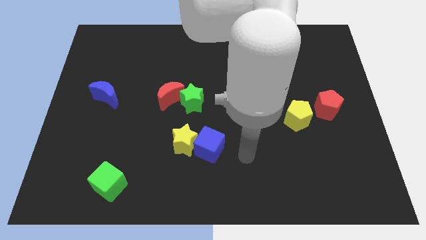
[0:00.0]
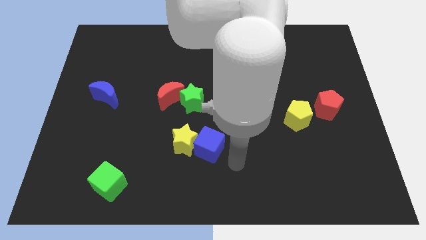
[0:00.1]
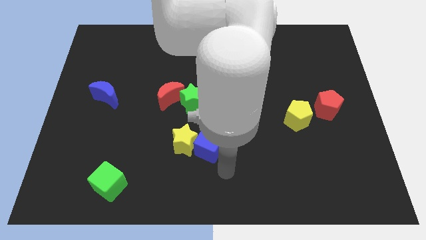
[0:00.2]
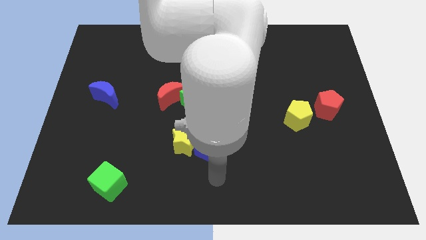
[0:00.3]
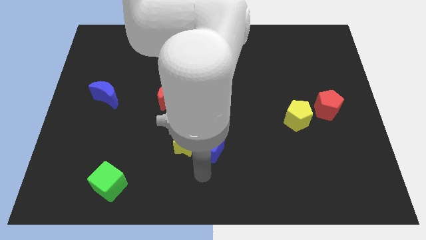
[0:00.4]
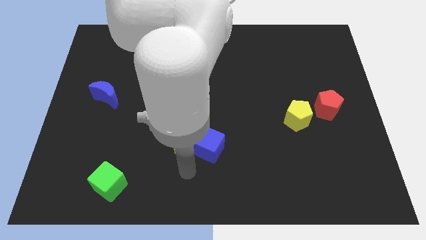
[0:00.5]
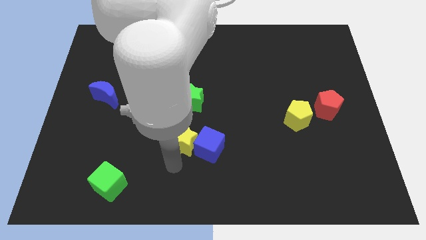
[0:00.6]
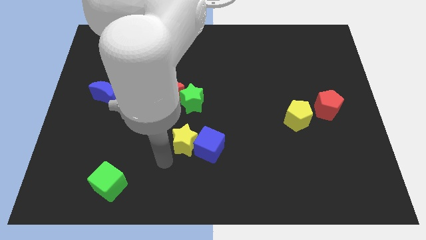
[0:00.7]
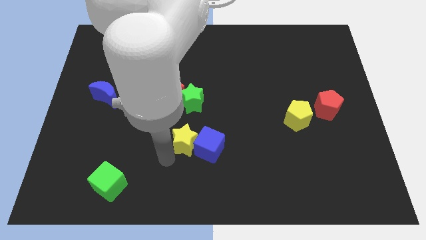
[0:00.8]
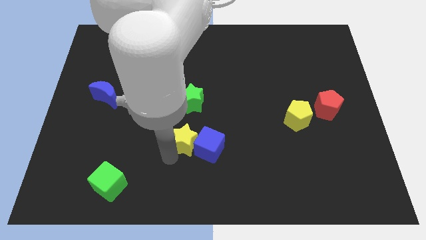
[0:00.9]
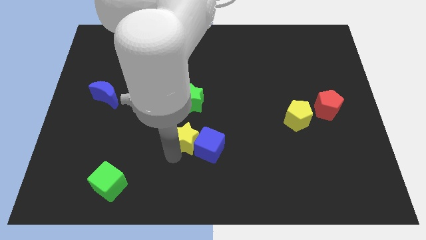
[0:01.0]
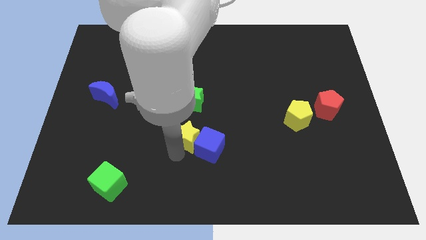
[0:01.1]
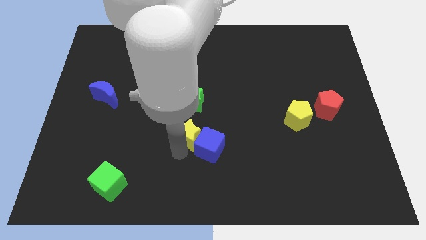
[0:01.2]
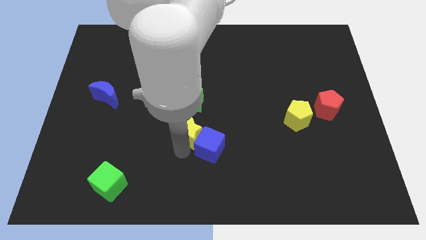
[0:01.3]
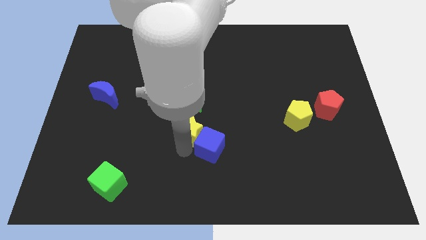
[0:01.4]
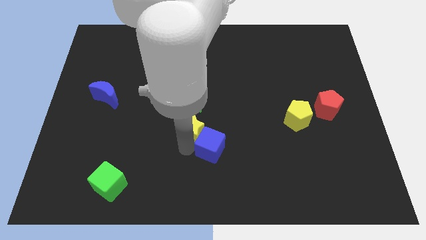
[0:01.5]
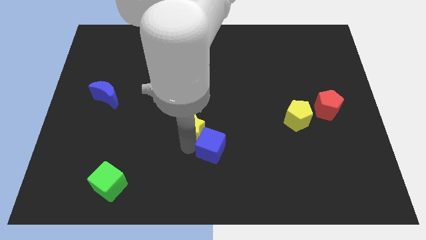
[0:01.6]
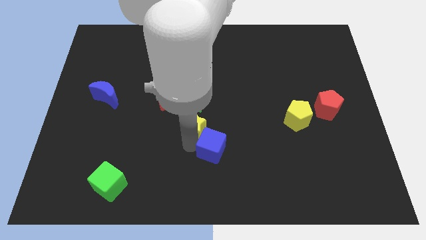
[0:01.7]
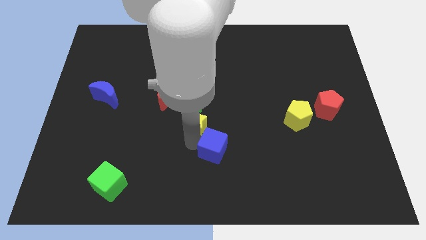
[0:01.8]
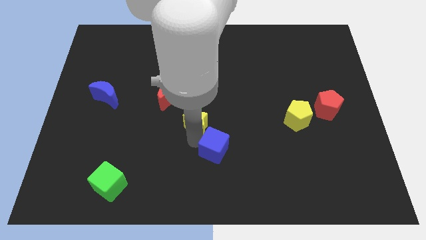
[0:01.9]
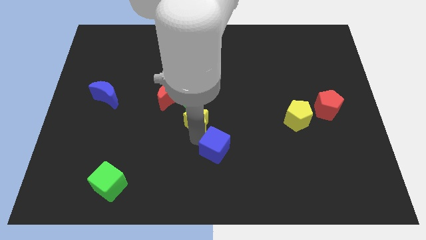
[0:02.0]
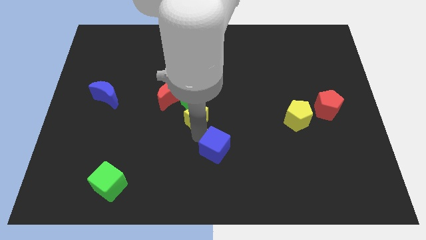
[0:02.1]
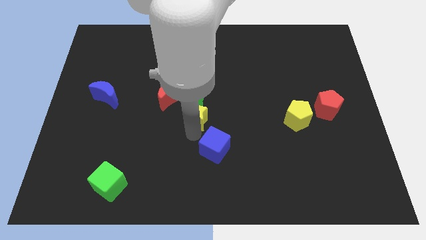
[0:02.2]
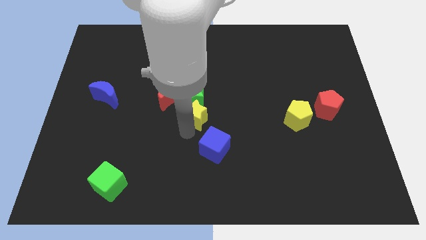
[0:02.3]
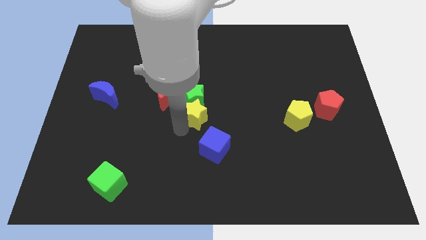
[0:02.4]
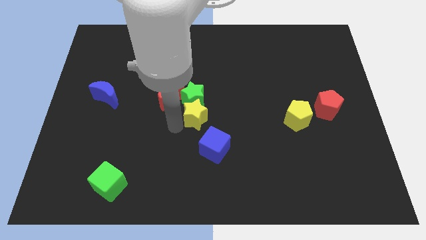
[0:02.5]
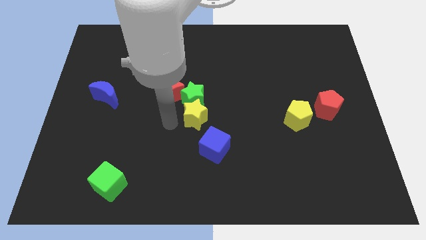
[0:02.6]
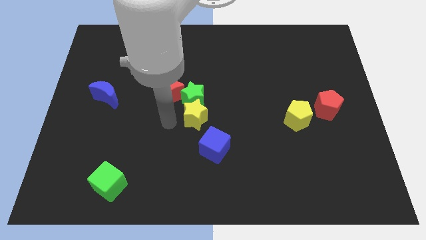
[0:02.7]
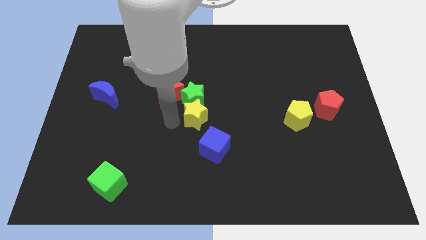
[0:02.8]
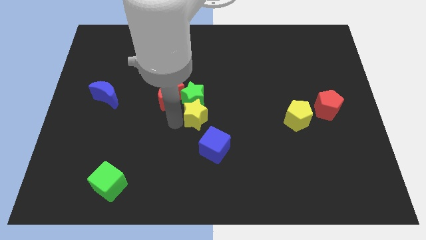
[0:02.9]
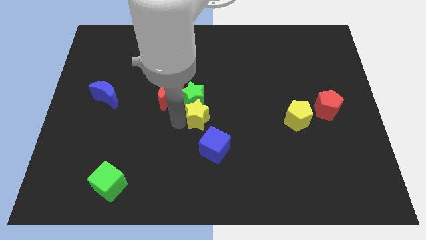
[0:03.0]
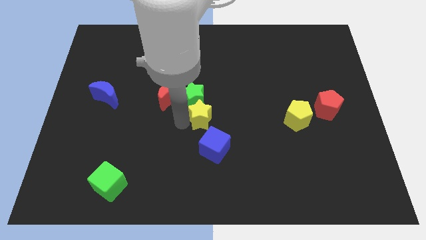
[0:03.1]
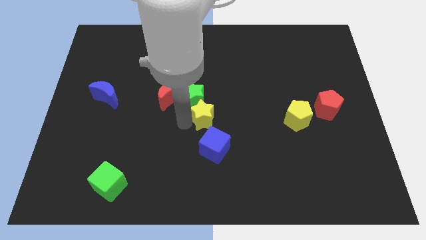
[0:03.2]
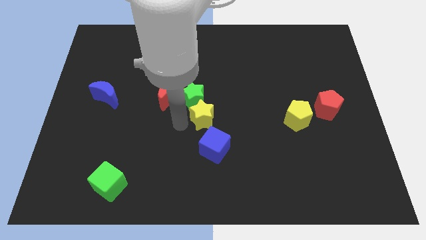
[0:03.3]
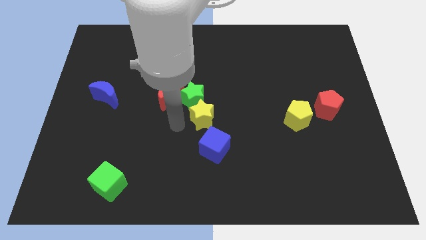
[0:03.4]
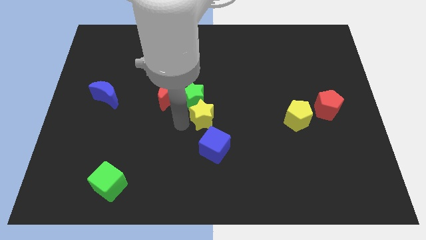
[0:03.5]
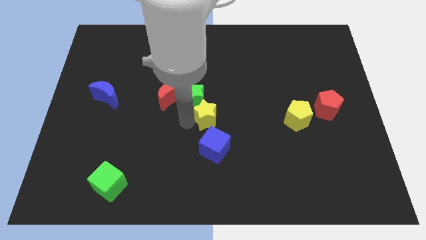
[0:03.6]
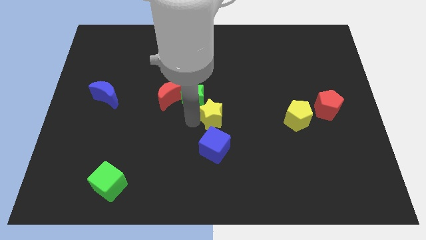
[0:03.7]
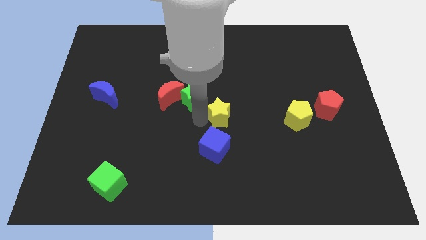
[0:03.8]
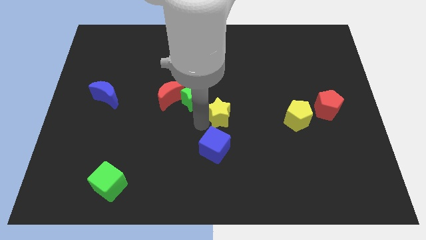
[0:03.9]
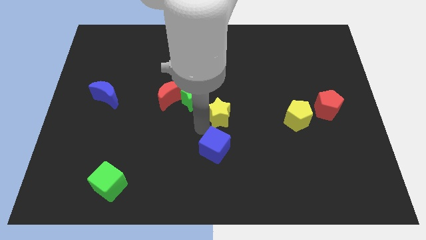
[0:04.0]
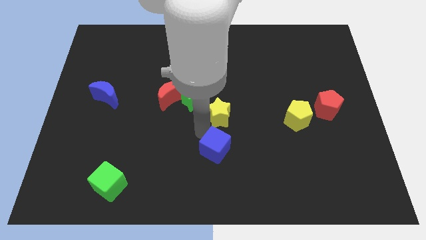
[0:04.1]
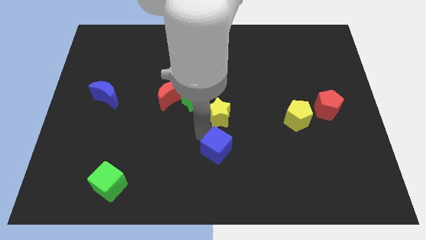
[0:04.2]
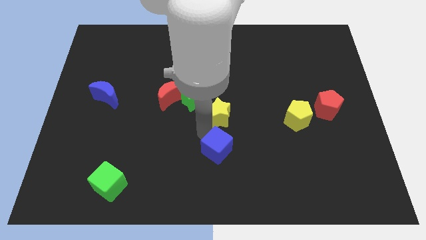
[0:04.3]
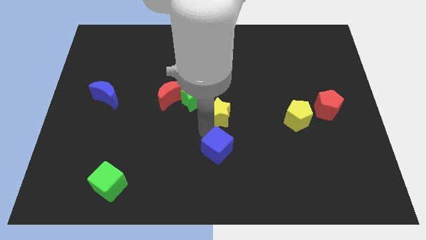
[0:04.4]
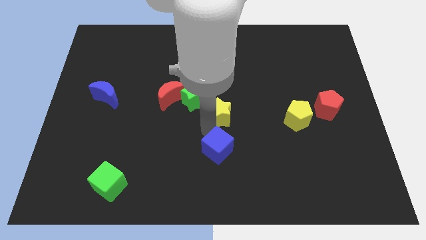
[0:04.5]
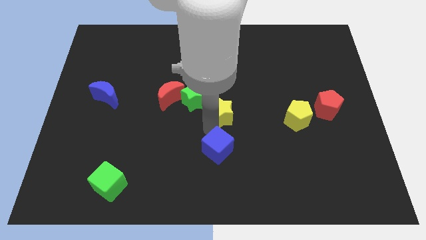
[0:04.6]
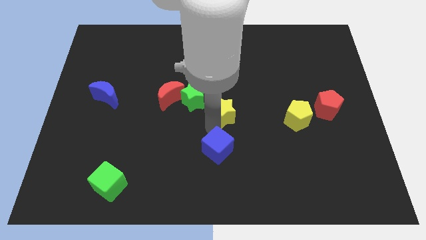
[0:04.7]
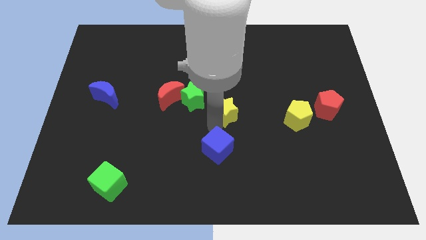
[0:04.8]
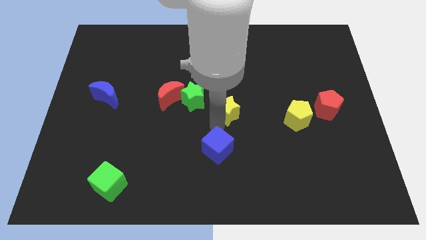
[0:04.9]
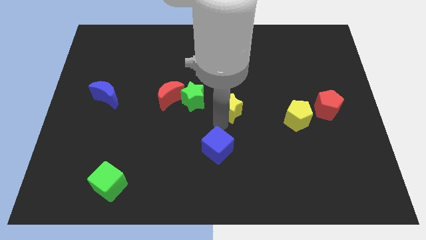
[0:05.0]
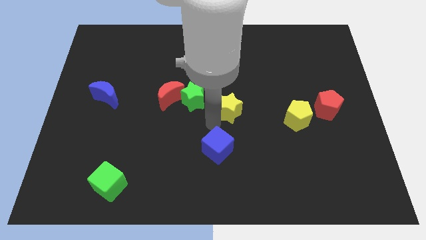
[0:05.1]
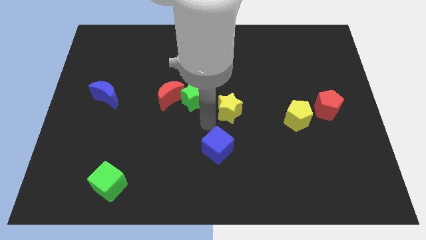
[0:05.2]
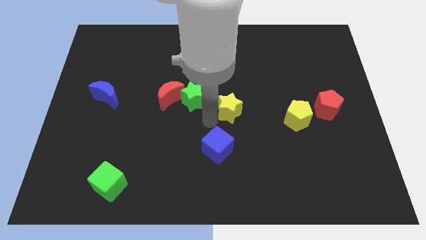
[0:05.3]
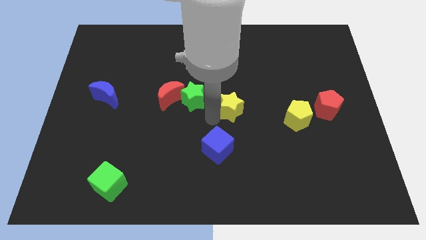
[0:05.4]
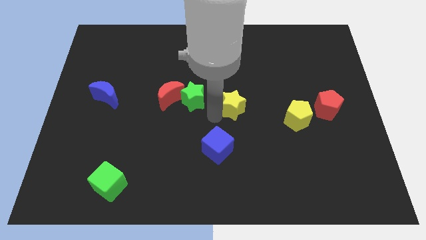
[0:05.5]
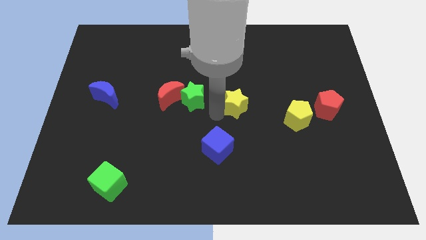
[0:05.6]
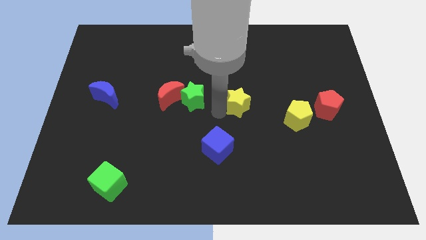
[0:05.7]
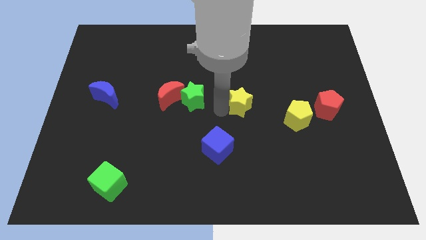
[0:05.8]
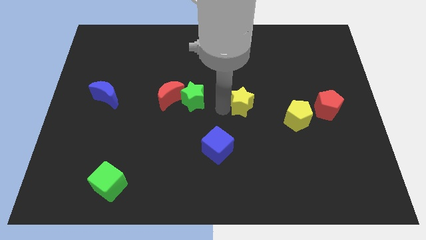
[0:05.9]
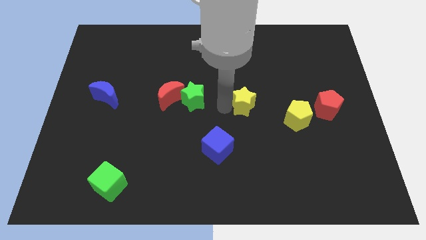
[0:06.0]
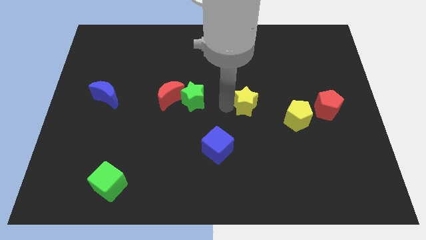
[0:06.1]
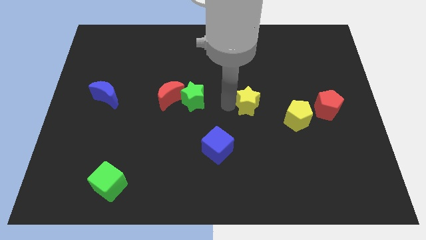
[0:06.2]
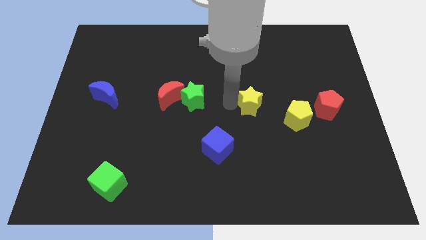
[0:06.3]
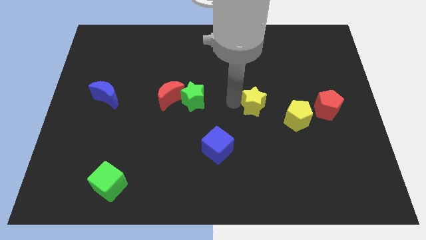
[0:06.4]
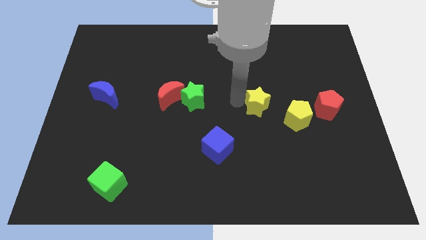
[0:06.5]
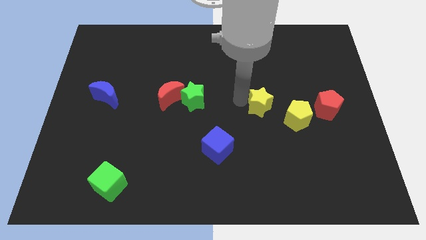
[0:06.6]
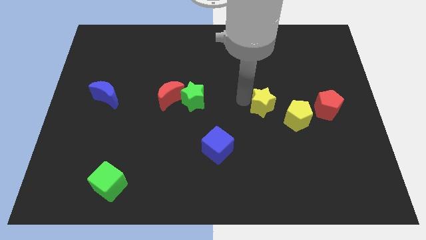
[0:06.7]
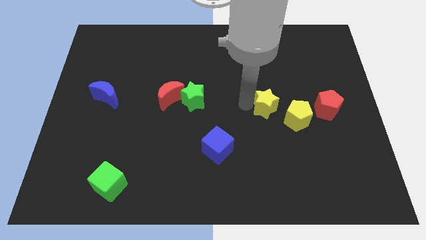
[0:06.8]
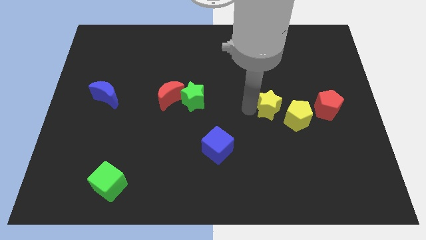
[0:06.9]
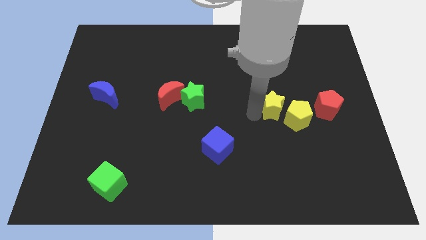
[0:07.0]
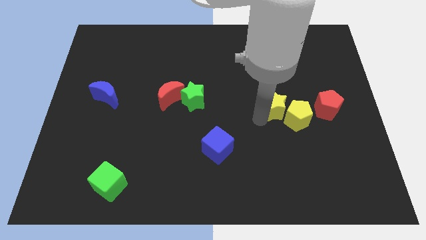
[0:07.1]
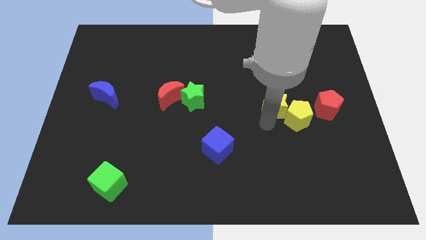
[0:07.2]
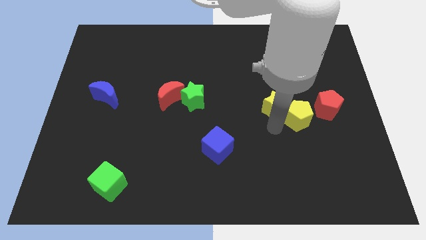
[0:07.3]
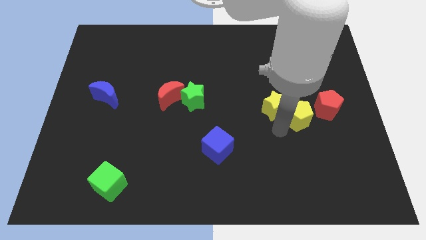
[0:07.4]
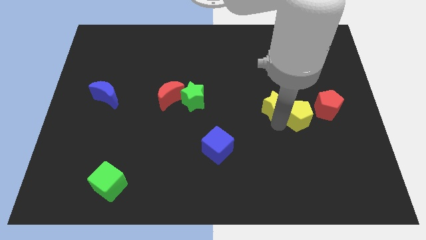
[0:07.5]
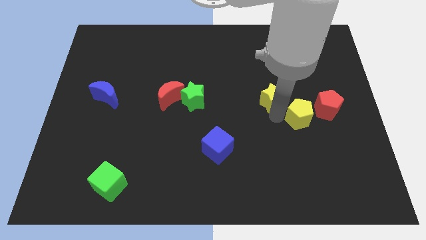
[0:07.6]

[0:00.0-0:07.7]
slide the yellow star upwards and right diagonally
